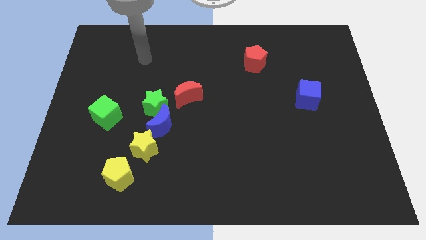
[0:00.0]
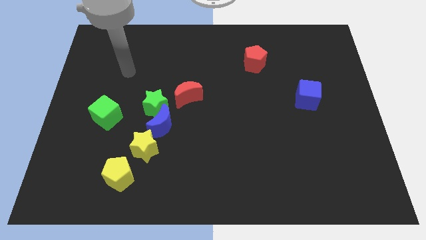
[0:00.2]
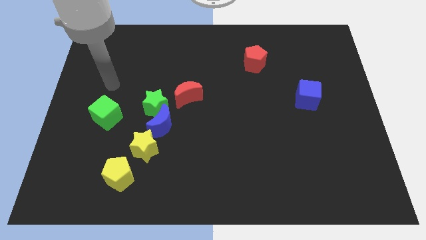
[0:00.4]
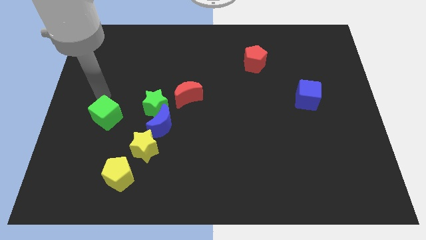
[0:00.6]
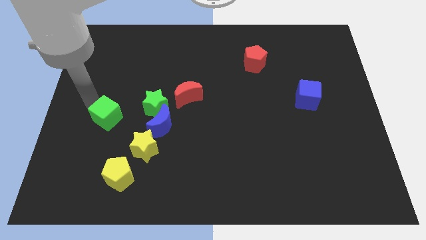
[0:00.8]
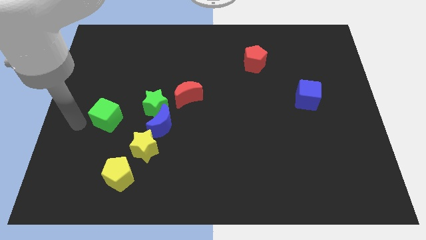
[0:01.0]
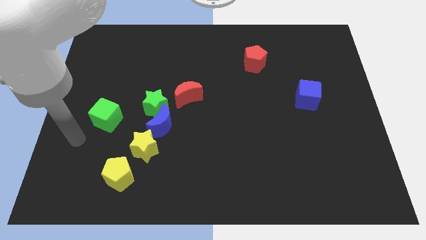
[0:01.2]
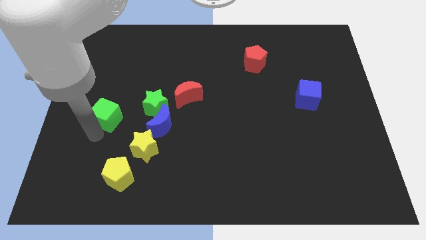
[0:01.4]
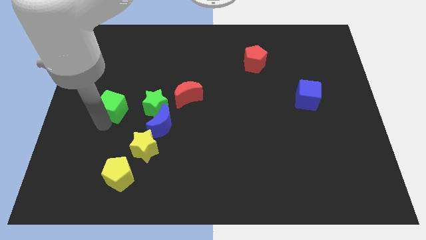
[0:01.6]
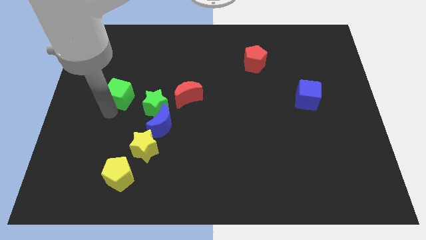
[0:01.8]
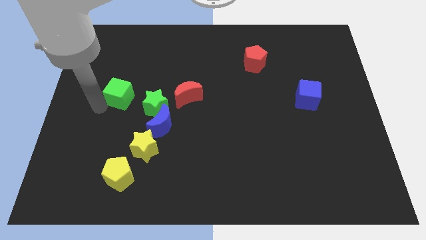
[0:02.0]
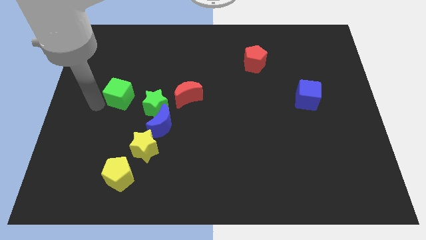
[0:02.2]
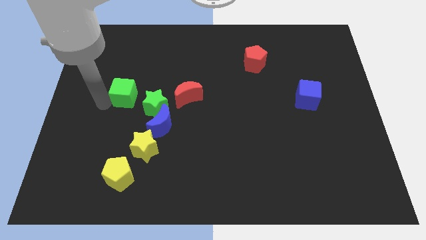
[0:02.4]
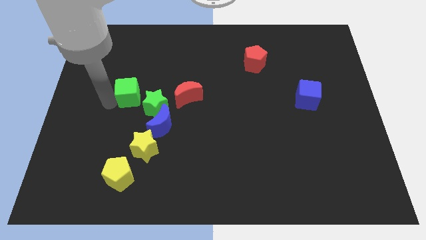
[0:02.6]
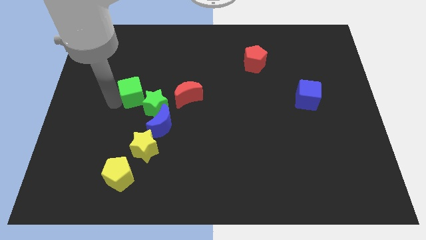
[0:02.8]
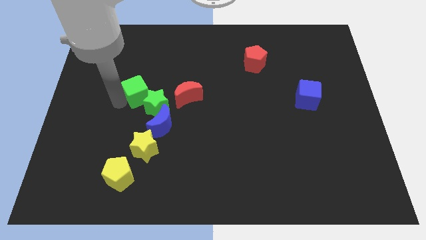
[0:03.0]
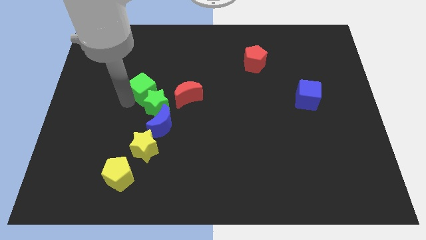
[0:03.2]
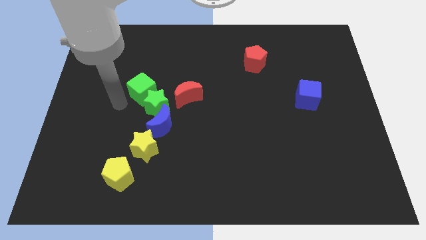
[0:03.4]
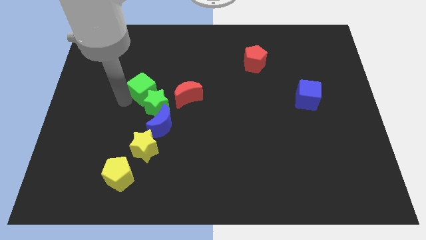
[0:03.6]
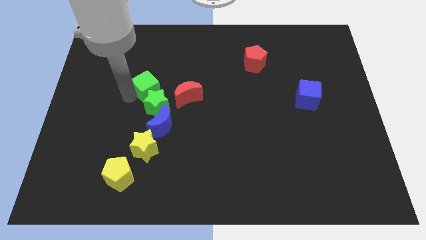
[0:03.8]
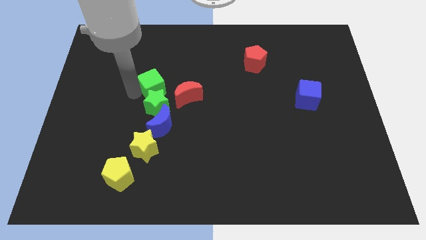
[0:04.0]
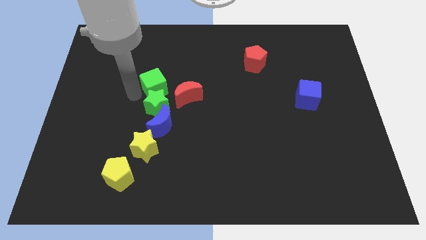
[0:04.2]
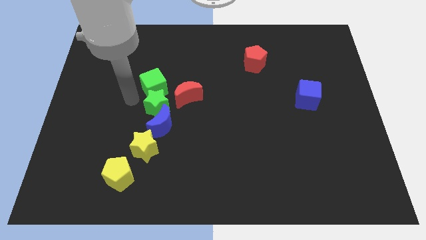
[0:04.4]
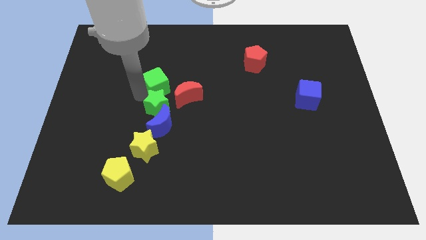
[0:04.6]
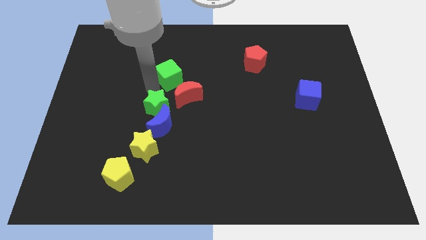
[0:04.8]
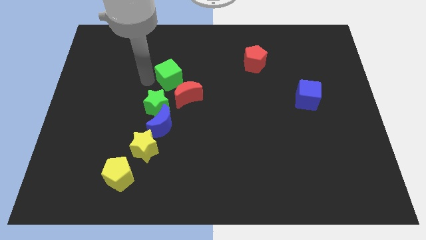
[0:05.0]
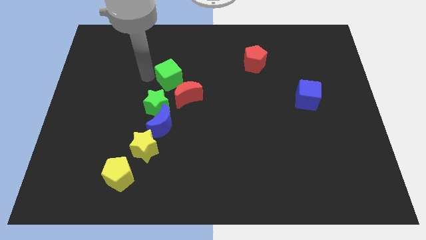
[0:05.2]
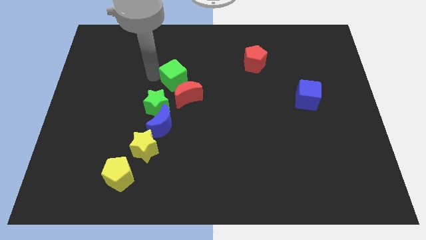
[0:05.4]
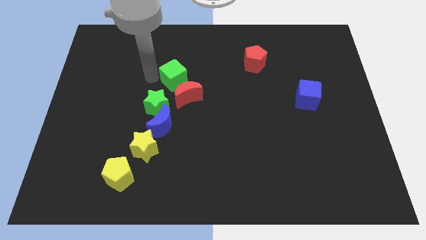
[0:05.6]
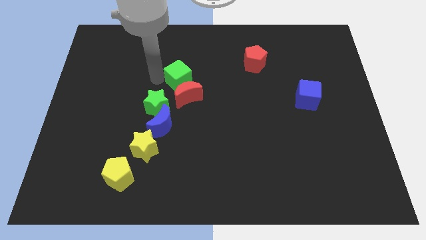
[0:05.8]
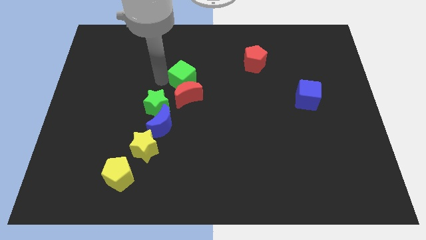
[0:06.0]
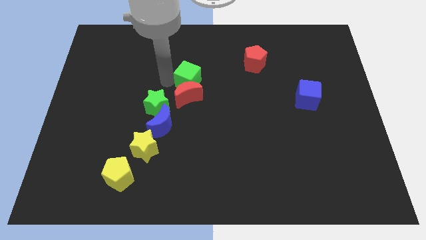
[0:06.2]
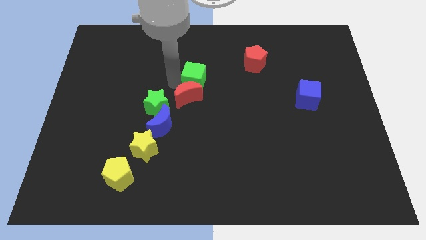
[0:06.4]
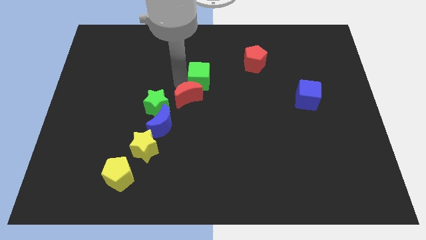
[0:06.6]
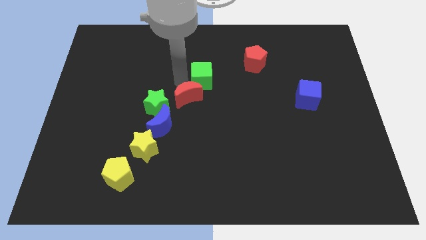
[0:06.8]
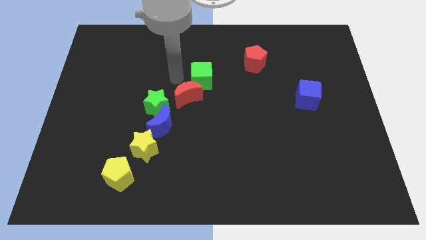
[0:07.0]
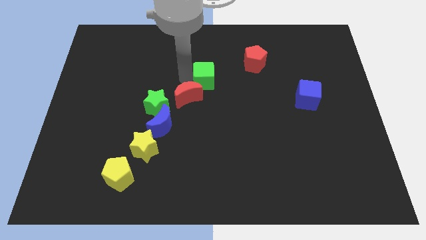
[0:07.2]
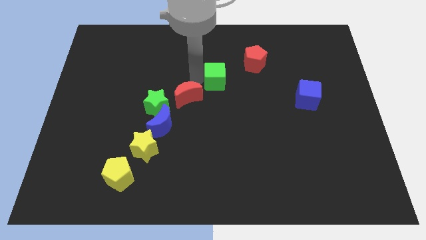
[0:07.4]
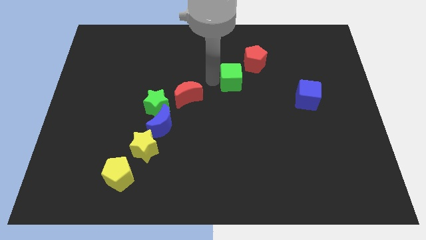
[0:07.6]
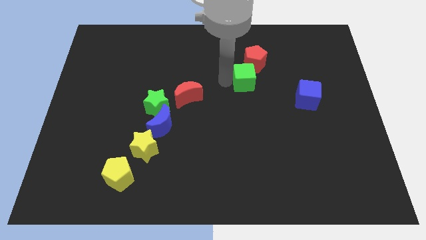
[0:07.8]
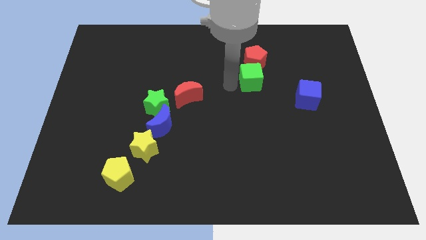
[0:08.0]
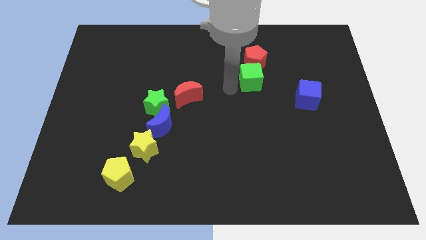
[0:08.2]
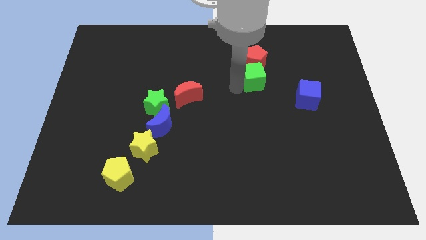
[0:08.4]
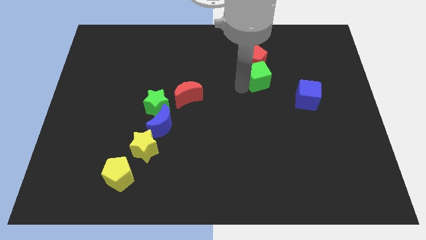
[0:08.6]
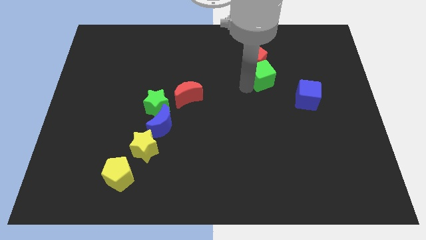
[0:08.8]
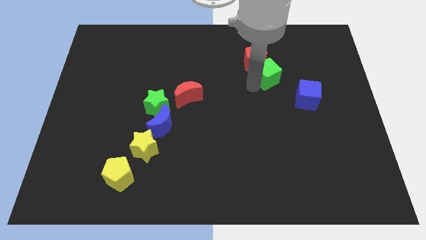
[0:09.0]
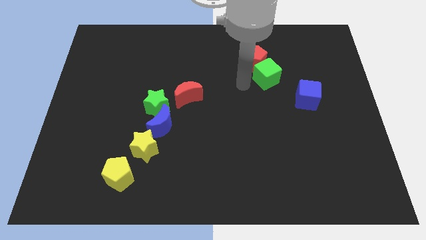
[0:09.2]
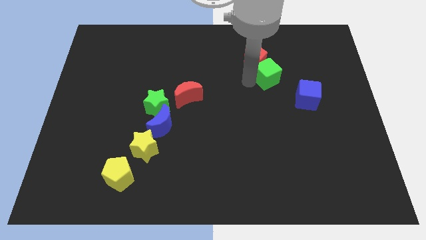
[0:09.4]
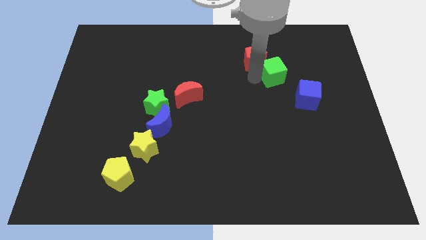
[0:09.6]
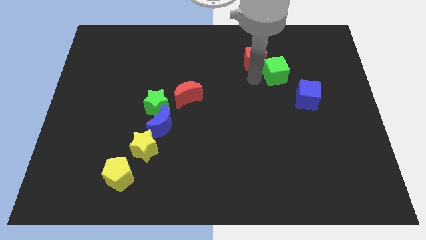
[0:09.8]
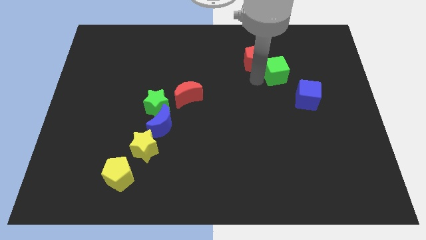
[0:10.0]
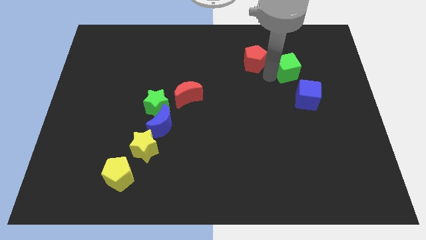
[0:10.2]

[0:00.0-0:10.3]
push the green cube to the top side of the blue cube

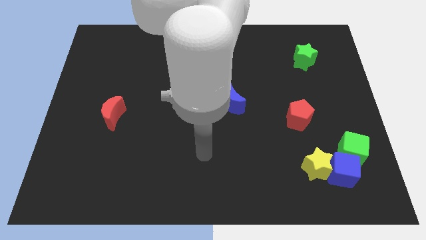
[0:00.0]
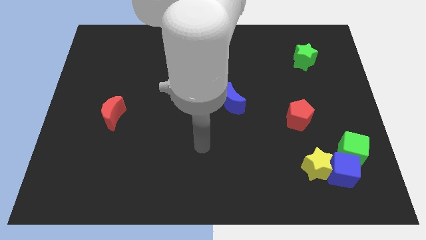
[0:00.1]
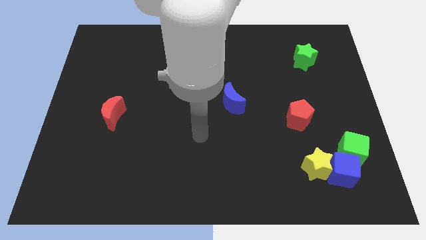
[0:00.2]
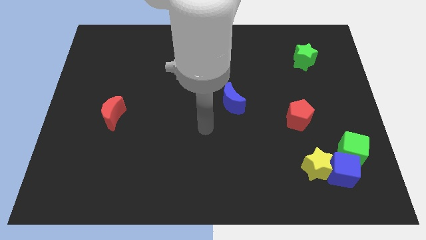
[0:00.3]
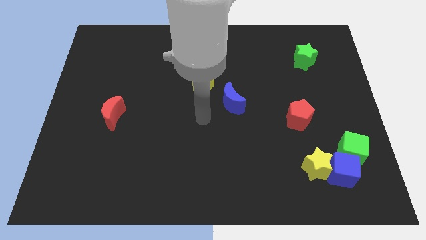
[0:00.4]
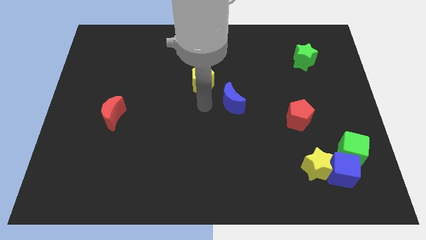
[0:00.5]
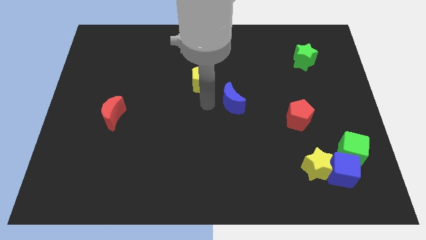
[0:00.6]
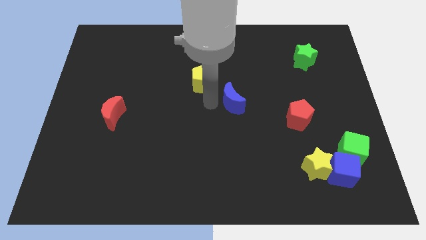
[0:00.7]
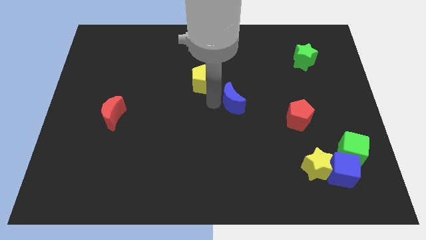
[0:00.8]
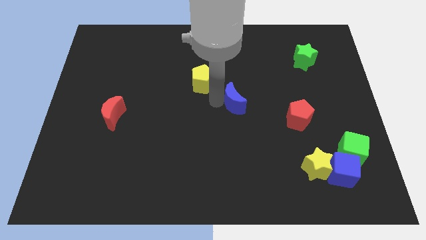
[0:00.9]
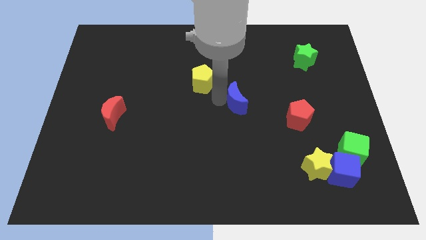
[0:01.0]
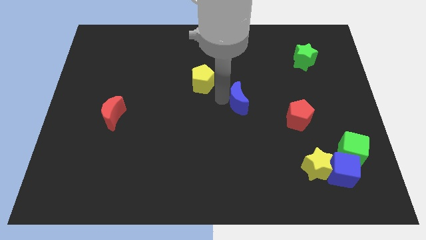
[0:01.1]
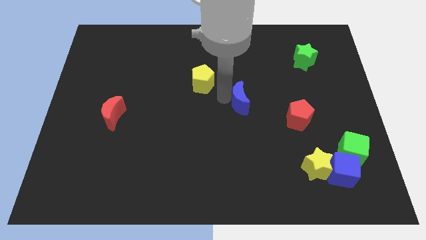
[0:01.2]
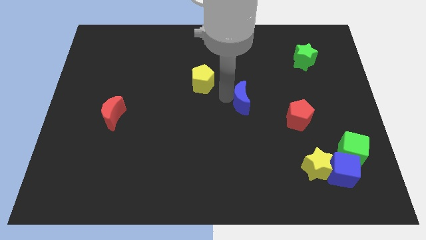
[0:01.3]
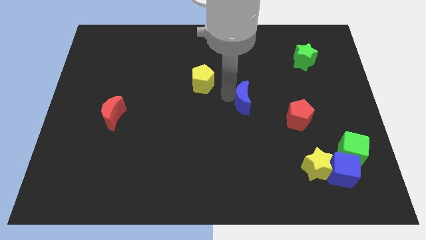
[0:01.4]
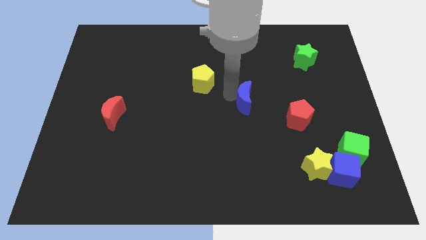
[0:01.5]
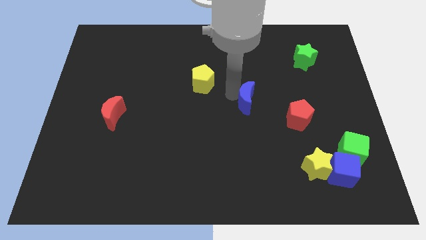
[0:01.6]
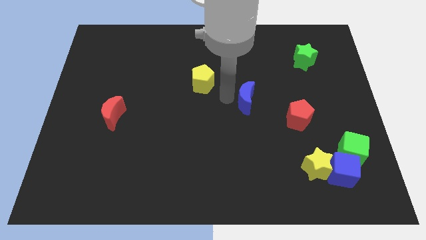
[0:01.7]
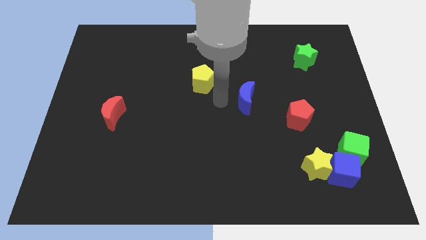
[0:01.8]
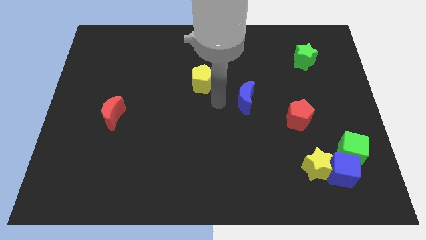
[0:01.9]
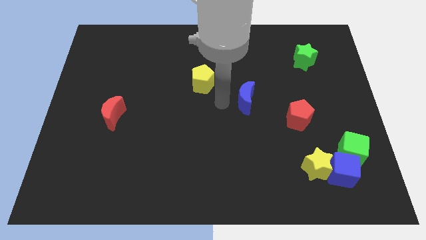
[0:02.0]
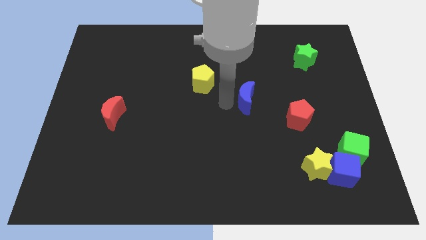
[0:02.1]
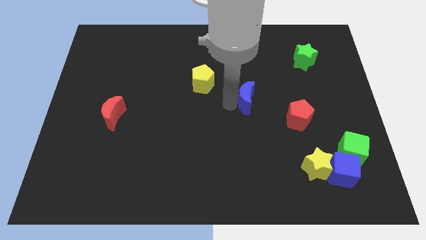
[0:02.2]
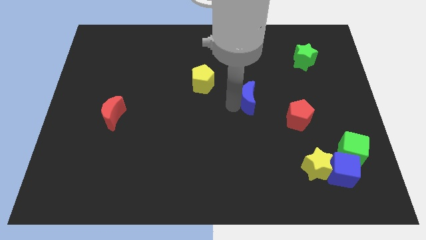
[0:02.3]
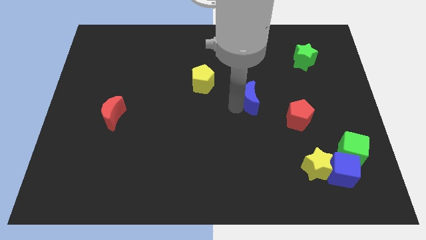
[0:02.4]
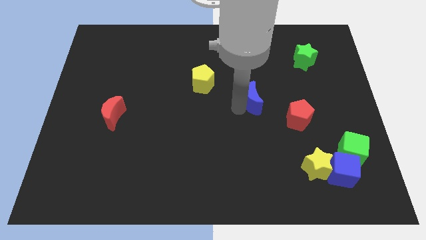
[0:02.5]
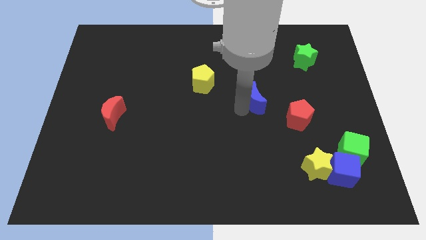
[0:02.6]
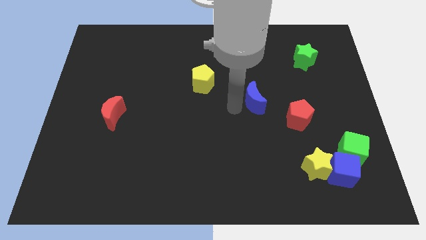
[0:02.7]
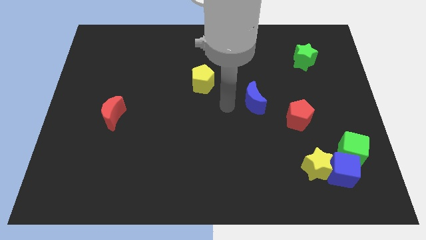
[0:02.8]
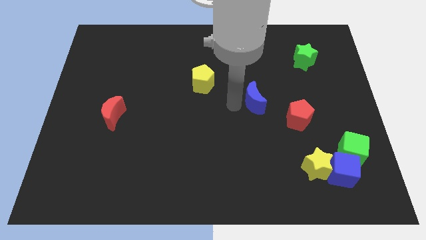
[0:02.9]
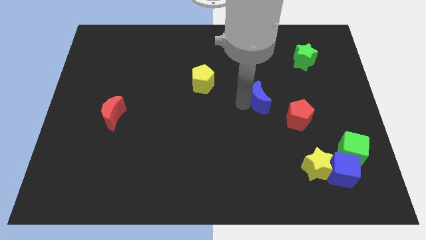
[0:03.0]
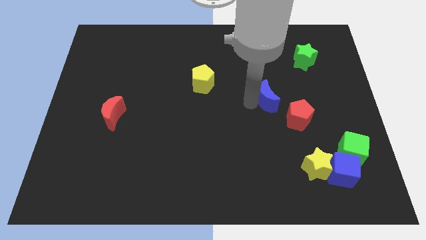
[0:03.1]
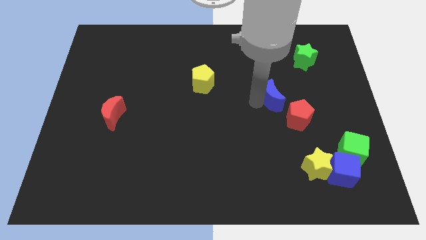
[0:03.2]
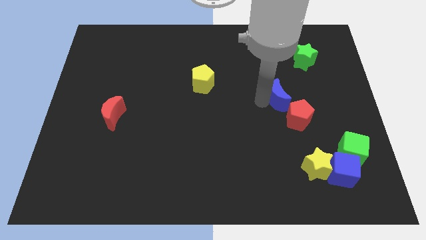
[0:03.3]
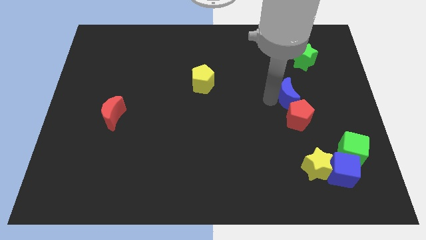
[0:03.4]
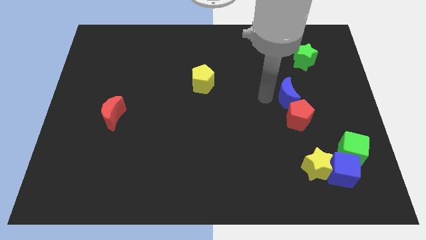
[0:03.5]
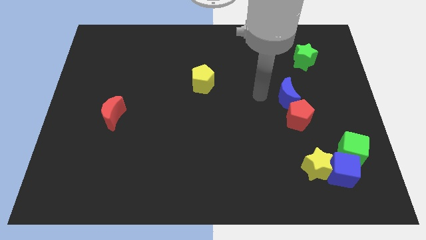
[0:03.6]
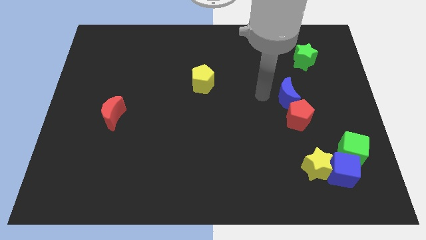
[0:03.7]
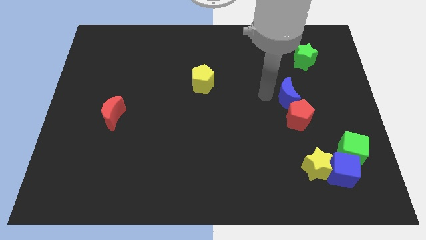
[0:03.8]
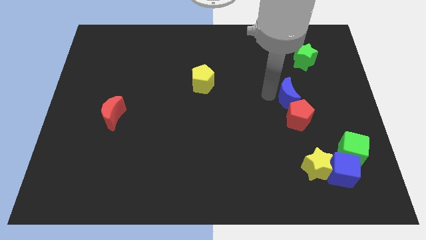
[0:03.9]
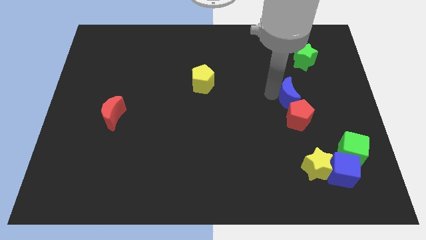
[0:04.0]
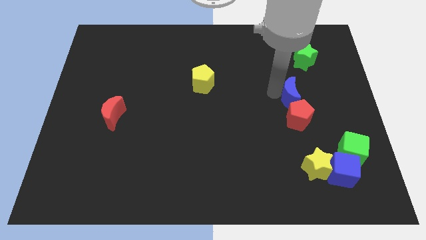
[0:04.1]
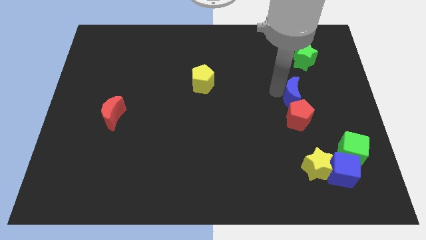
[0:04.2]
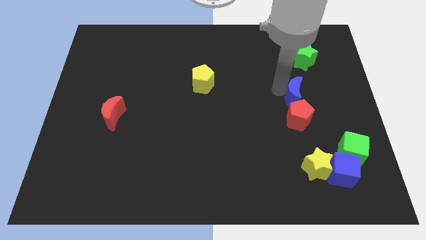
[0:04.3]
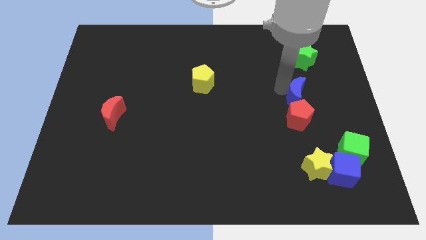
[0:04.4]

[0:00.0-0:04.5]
push the blue moon diagonally up and to the right of the red pentagon
